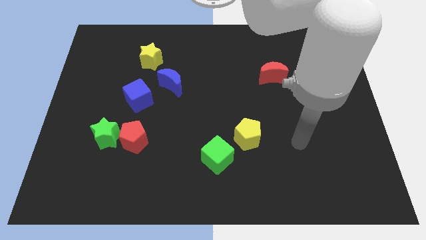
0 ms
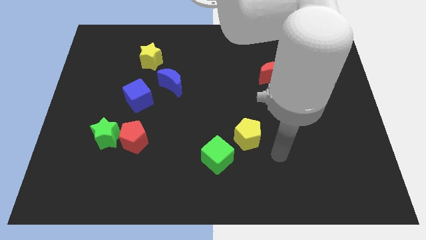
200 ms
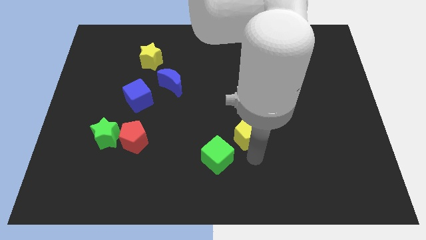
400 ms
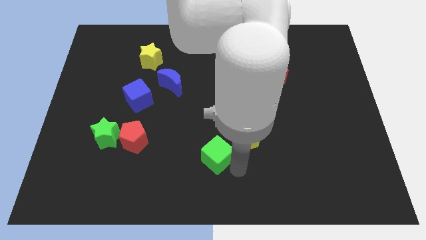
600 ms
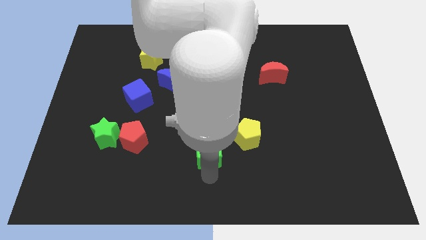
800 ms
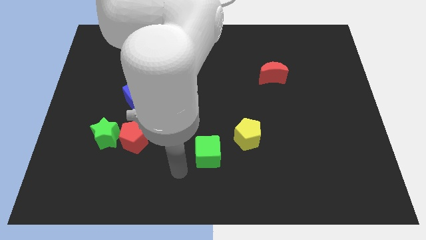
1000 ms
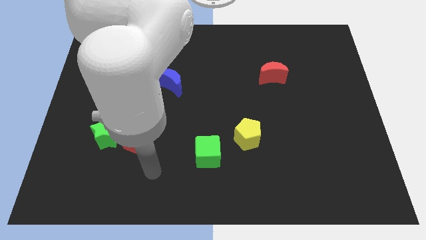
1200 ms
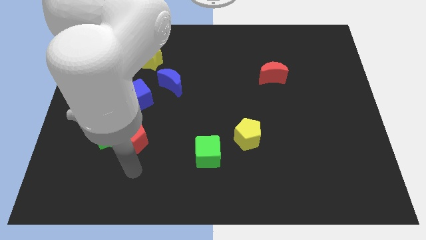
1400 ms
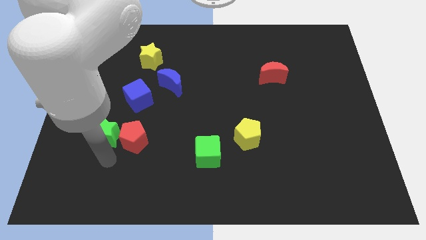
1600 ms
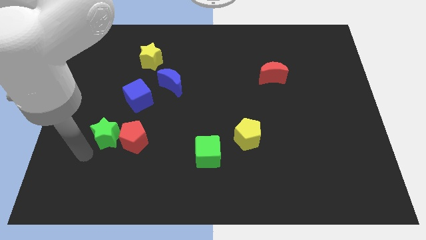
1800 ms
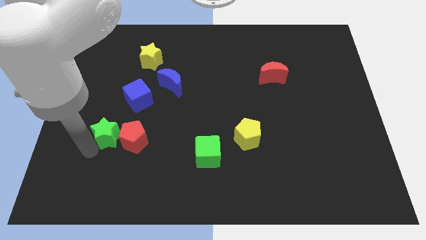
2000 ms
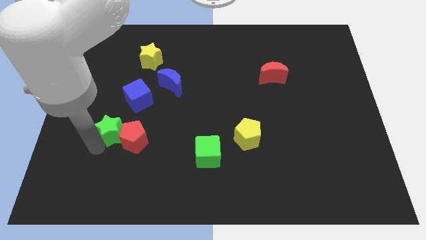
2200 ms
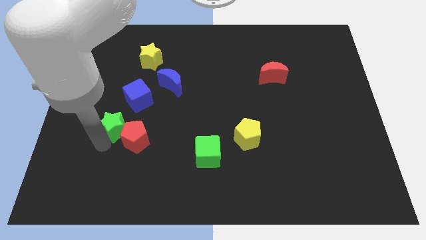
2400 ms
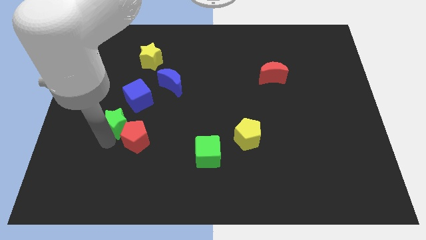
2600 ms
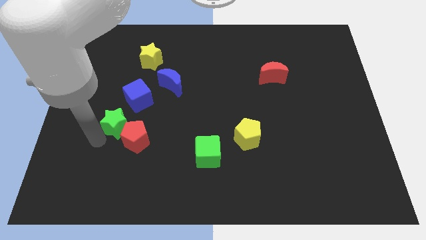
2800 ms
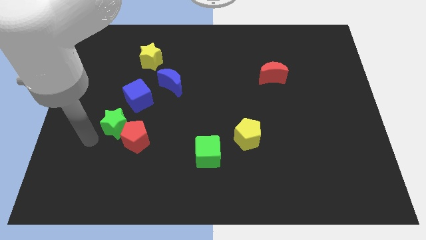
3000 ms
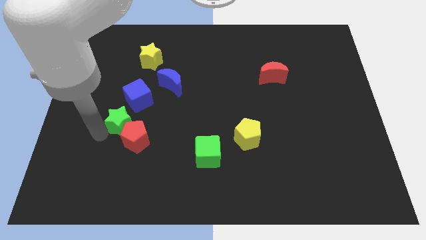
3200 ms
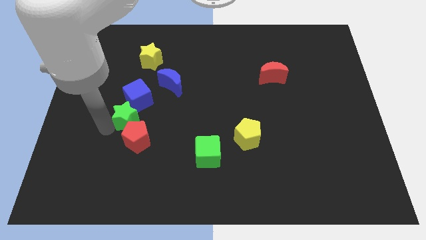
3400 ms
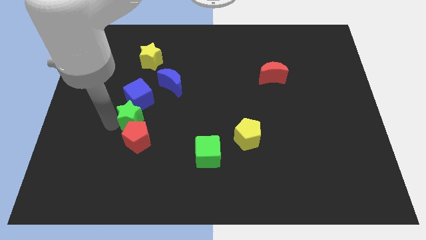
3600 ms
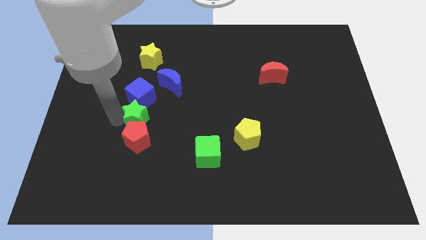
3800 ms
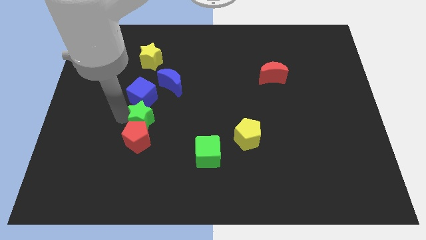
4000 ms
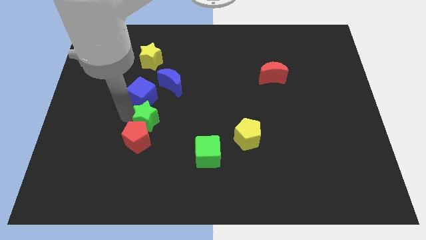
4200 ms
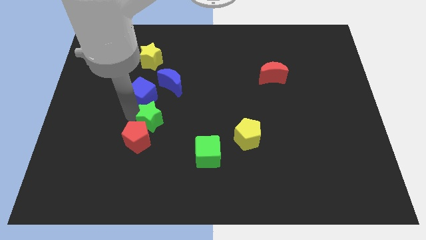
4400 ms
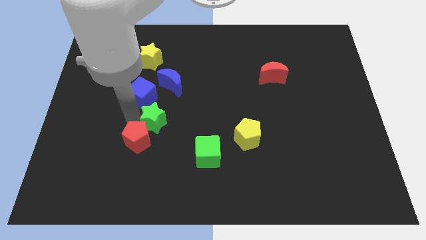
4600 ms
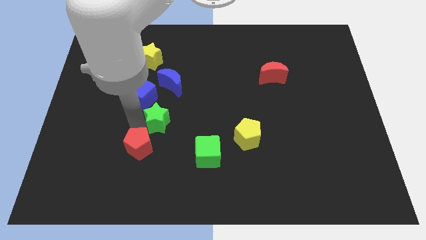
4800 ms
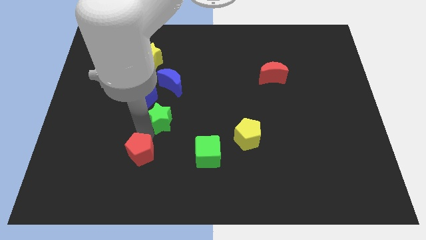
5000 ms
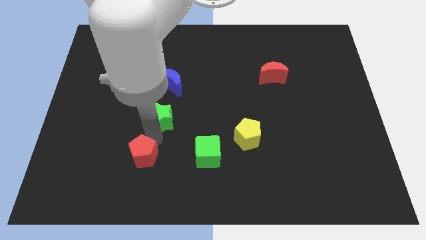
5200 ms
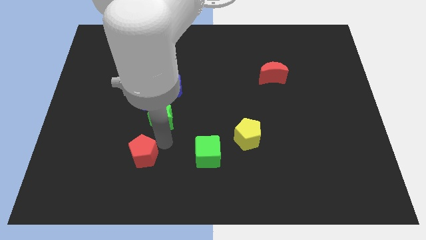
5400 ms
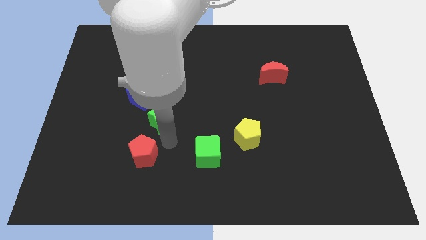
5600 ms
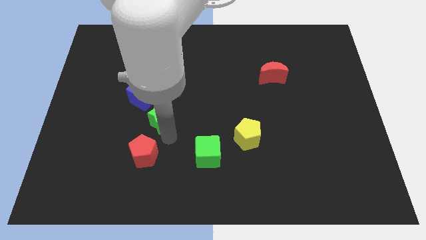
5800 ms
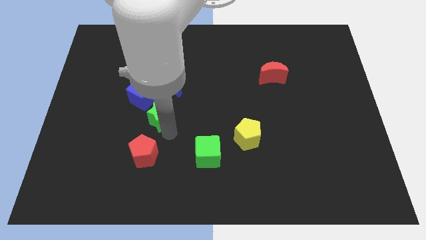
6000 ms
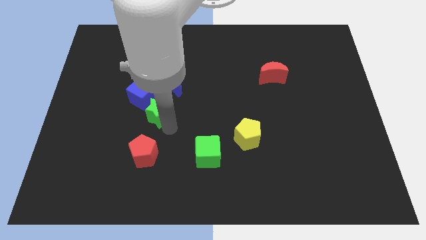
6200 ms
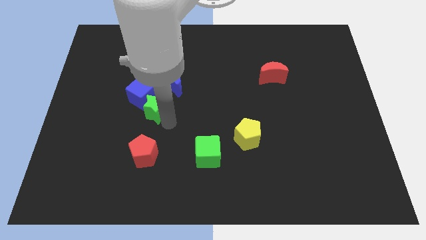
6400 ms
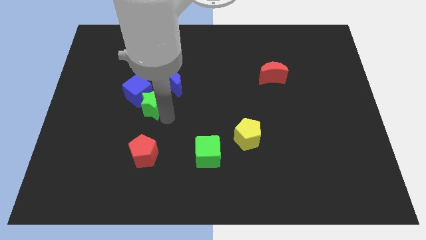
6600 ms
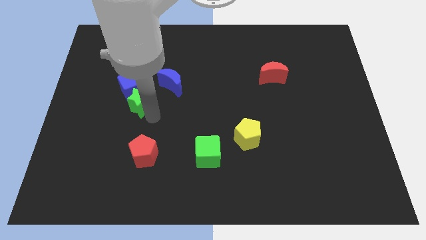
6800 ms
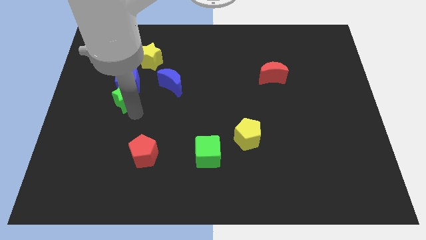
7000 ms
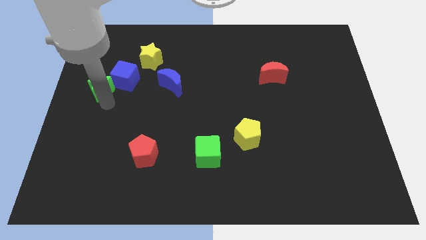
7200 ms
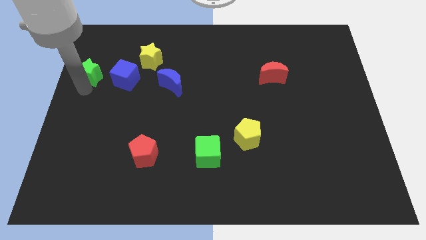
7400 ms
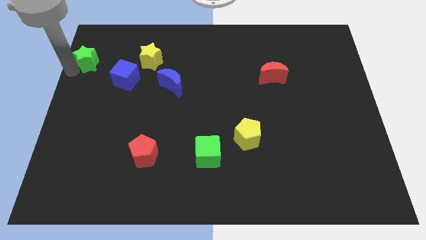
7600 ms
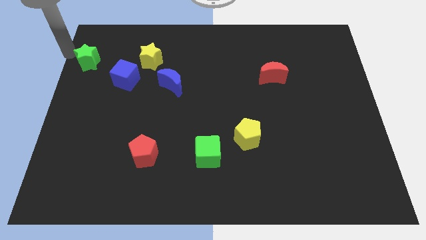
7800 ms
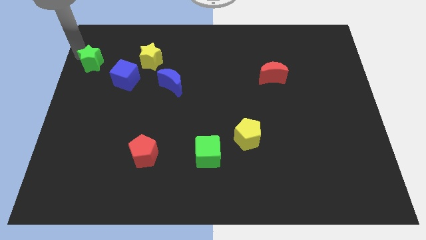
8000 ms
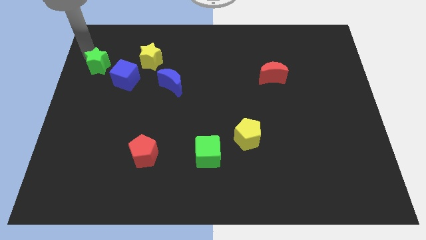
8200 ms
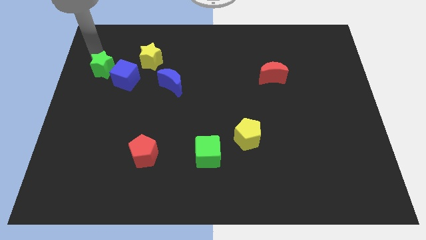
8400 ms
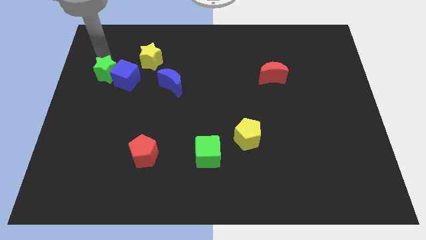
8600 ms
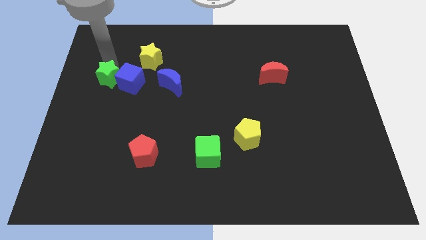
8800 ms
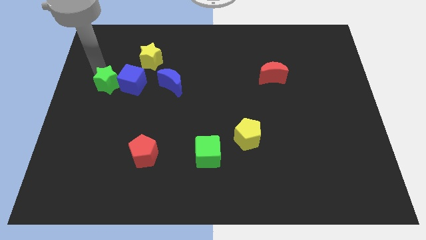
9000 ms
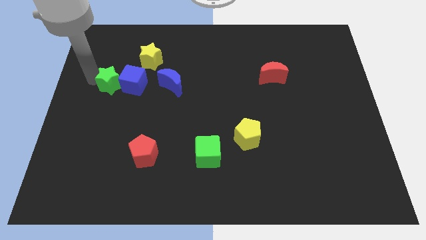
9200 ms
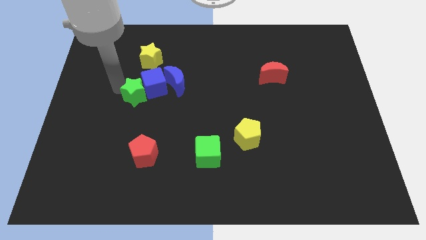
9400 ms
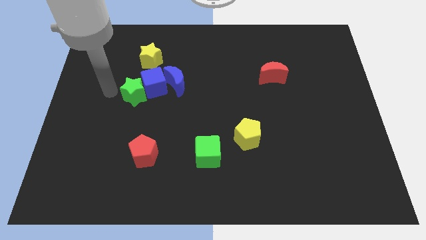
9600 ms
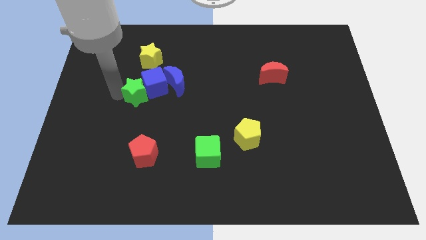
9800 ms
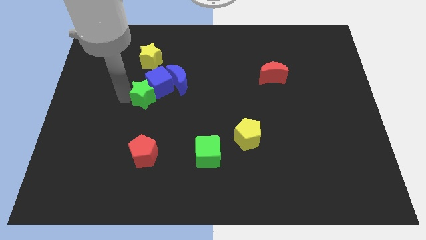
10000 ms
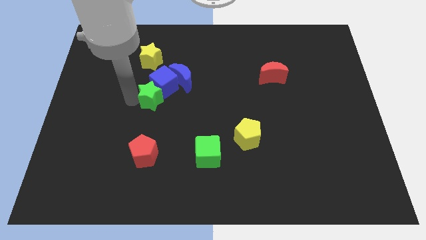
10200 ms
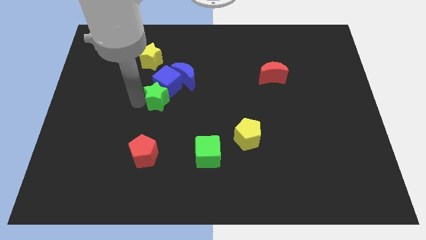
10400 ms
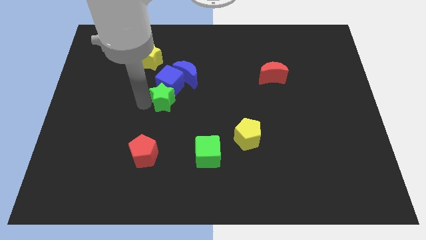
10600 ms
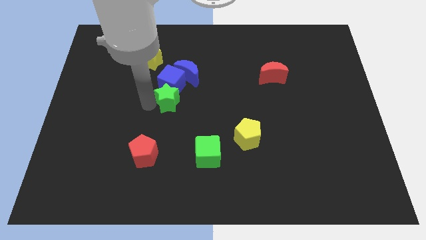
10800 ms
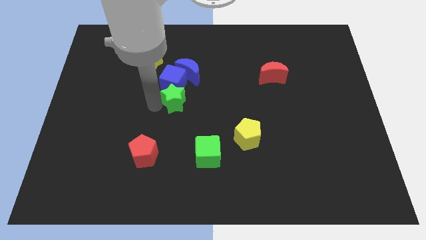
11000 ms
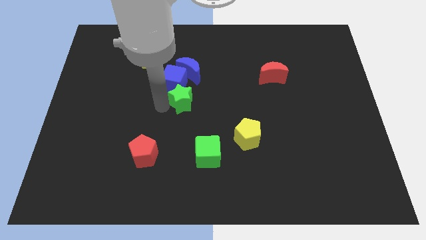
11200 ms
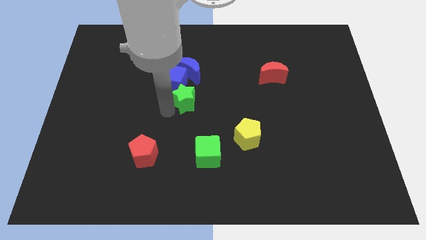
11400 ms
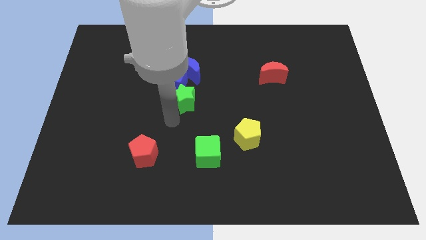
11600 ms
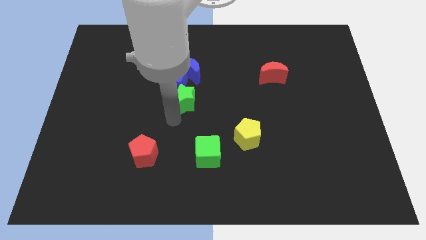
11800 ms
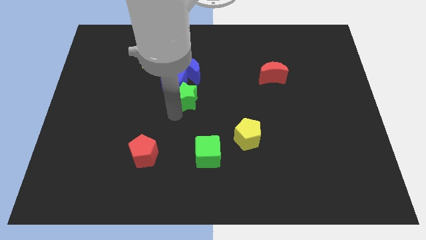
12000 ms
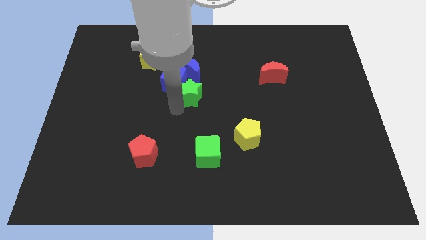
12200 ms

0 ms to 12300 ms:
move the green star up and to the right

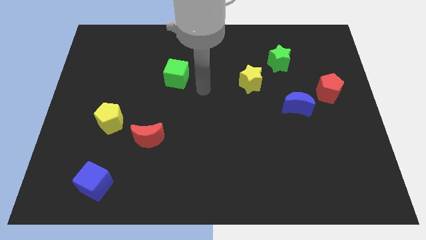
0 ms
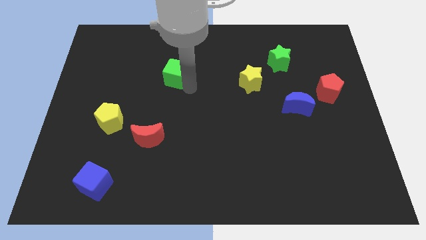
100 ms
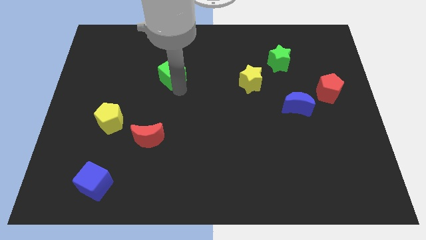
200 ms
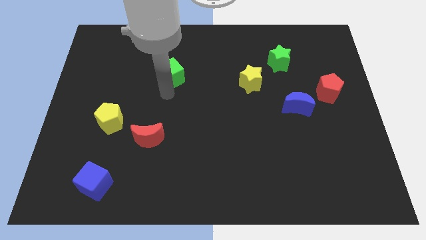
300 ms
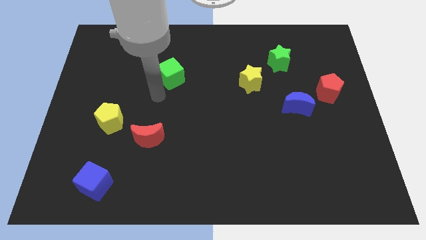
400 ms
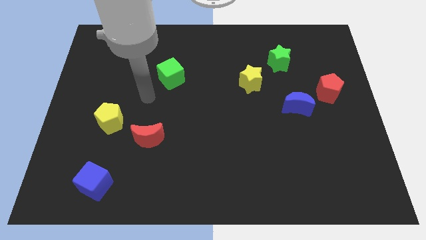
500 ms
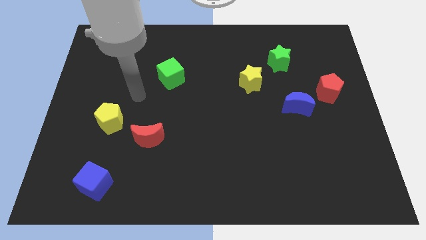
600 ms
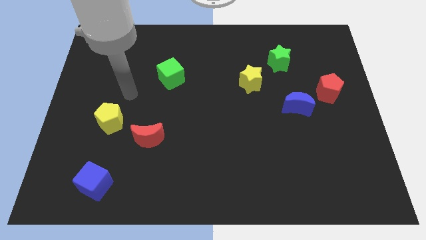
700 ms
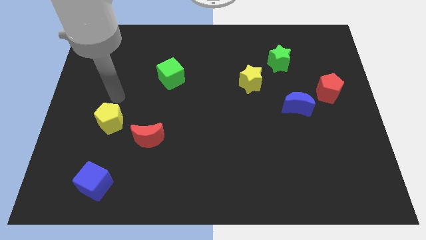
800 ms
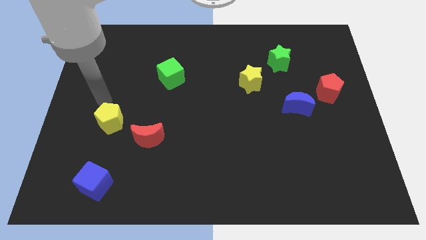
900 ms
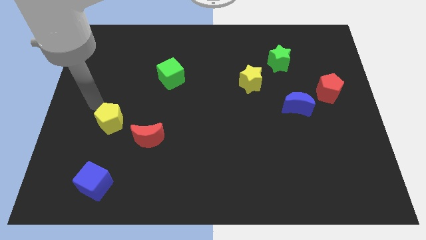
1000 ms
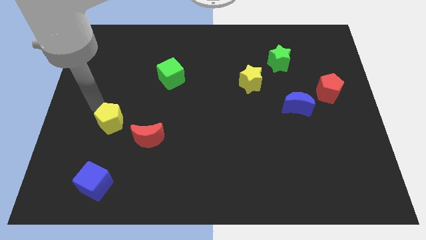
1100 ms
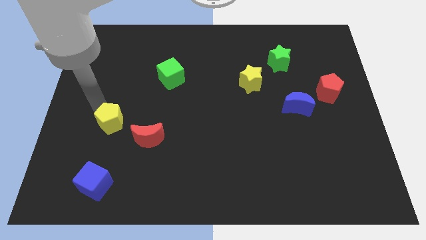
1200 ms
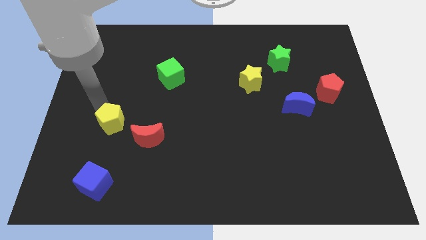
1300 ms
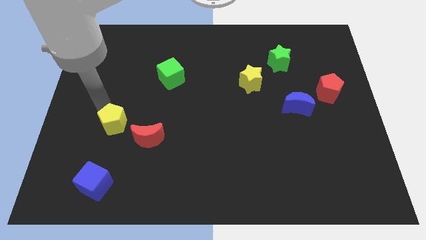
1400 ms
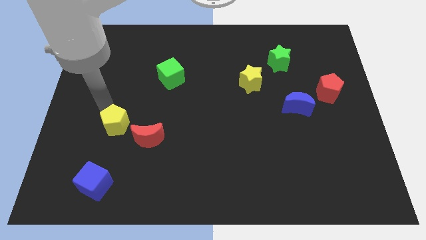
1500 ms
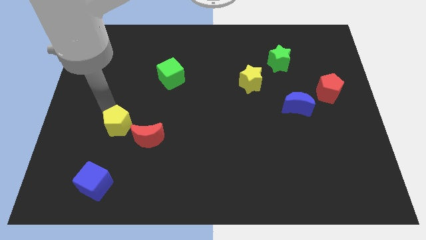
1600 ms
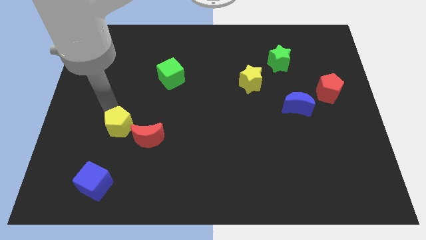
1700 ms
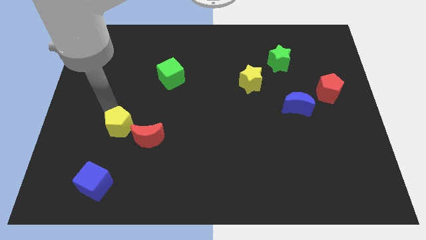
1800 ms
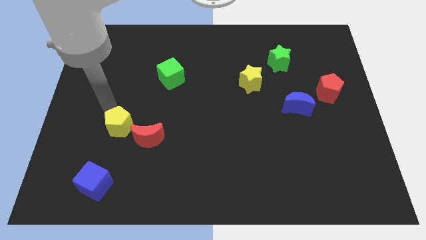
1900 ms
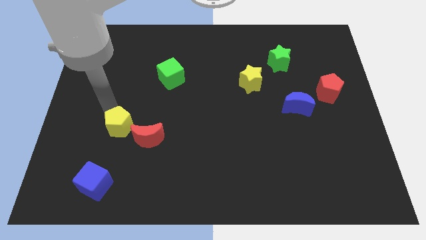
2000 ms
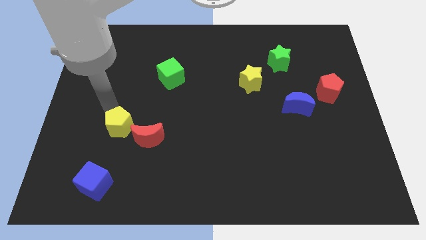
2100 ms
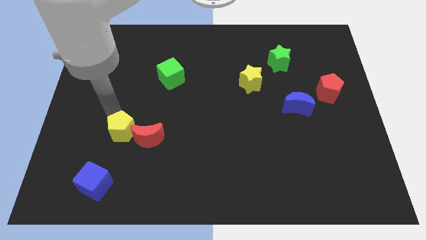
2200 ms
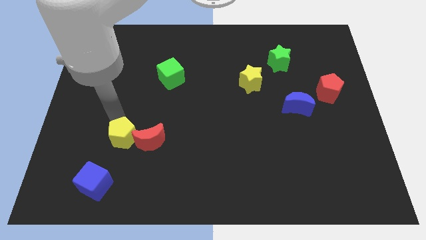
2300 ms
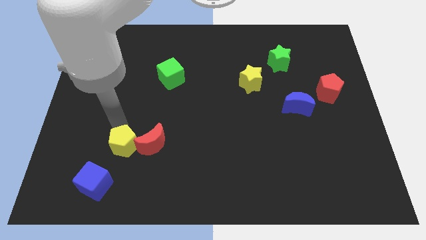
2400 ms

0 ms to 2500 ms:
push the yellow pentagon downwards and right diagonally a bit
